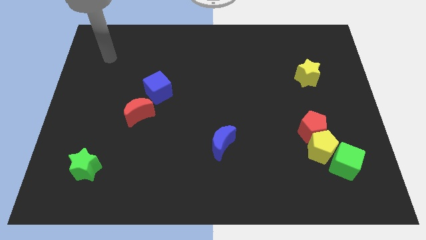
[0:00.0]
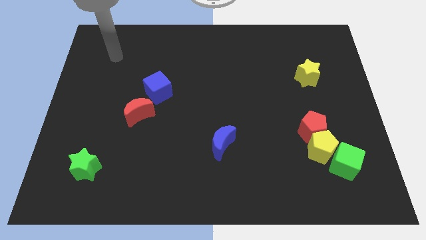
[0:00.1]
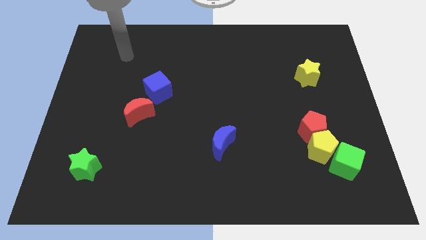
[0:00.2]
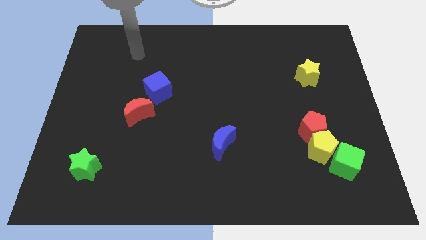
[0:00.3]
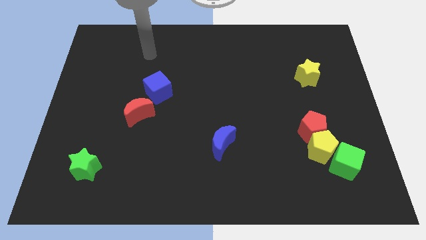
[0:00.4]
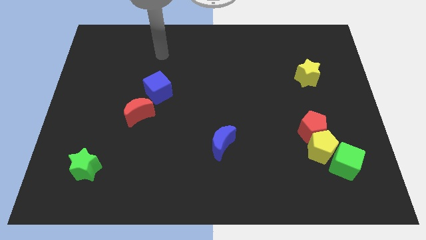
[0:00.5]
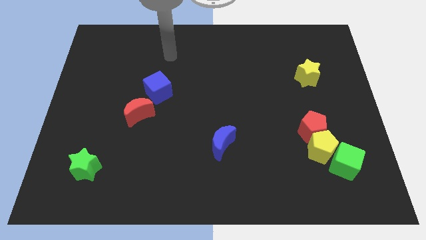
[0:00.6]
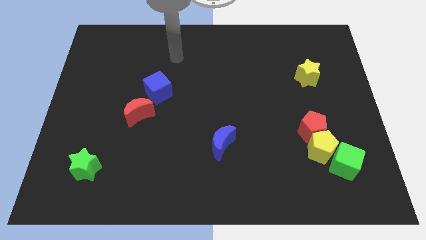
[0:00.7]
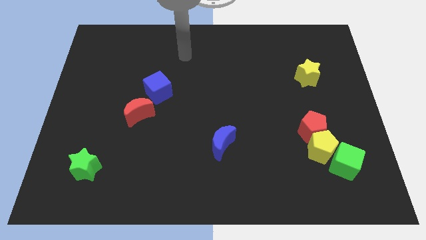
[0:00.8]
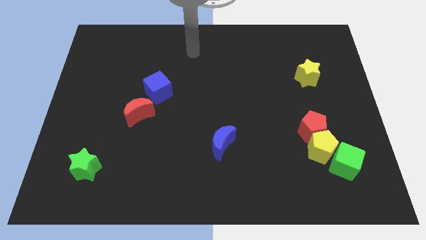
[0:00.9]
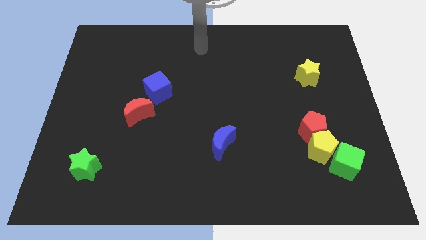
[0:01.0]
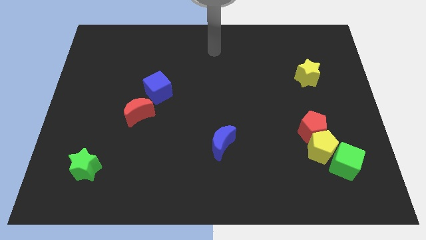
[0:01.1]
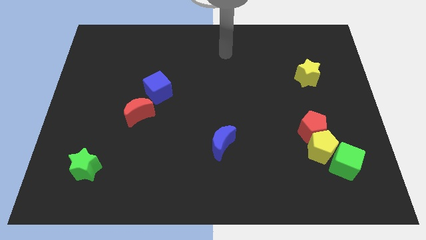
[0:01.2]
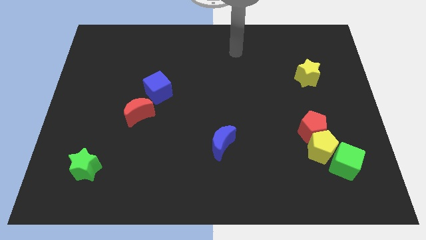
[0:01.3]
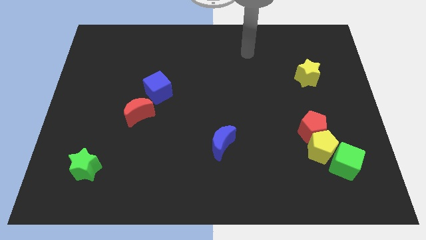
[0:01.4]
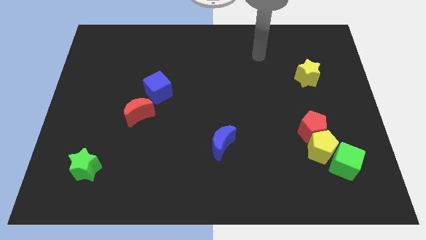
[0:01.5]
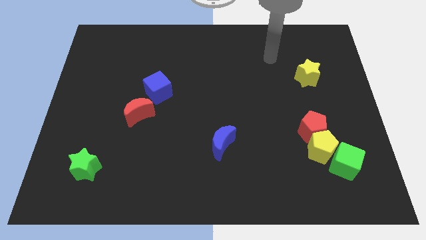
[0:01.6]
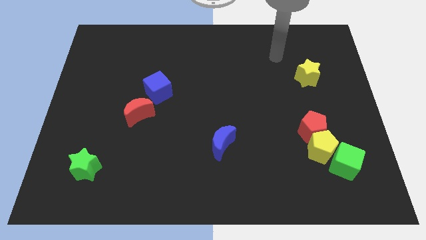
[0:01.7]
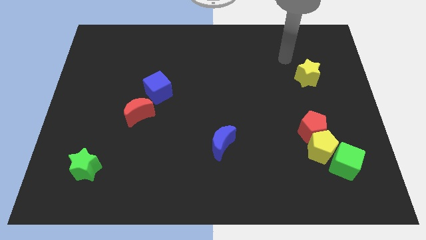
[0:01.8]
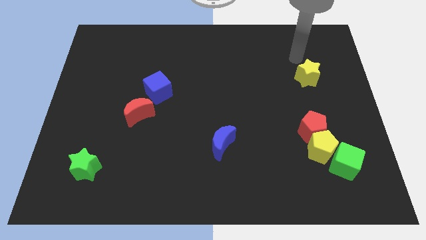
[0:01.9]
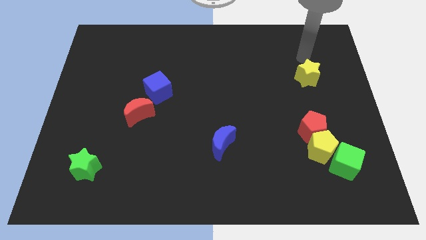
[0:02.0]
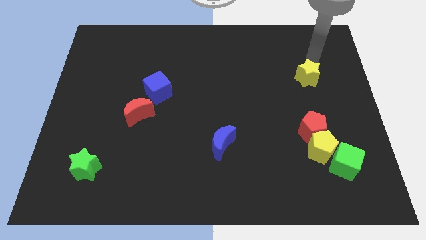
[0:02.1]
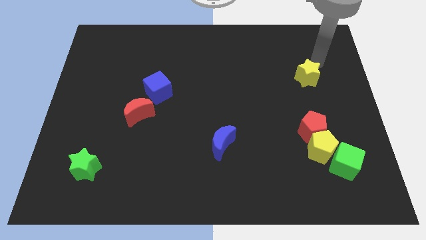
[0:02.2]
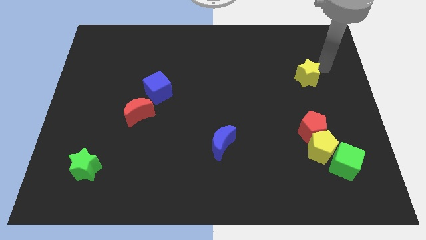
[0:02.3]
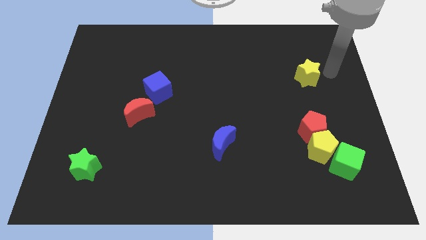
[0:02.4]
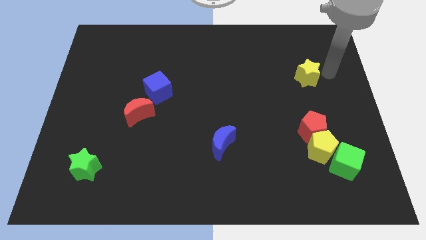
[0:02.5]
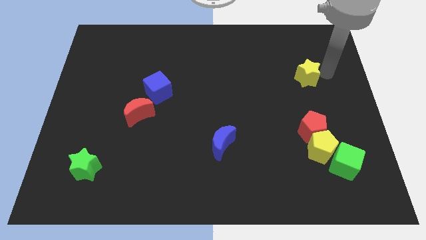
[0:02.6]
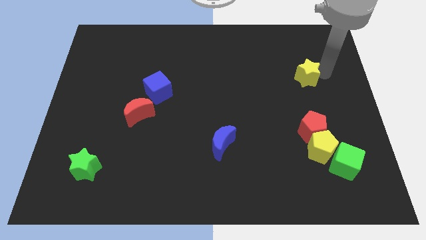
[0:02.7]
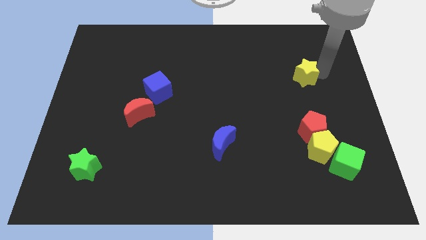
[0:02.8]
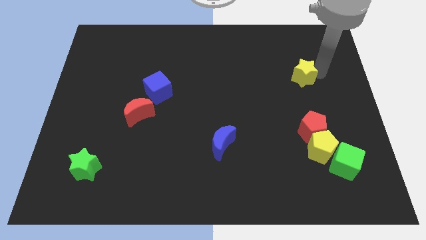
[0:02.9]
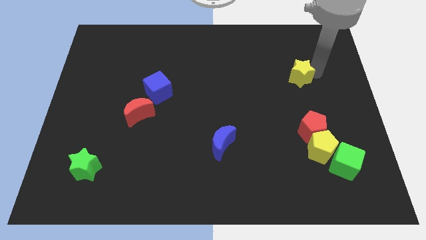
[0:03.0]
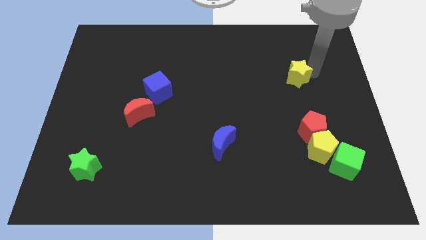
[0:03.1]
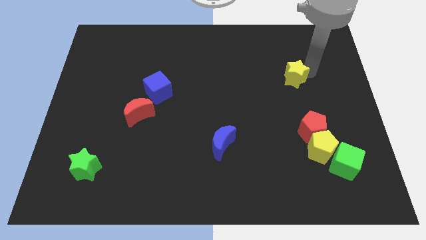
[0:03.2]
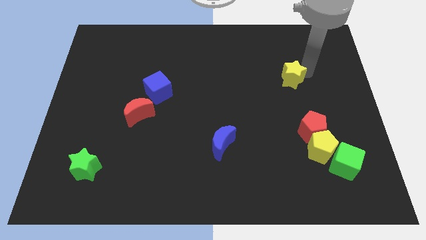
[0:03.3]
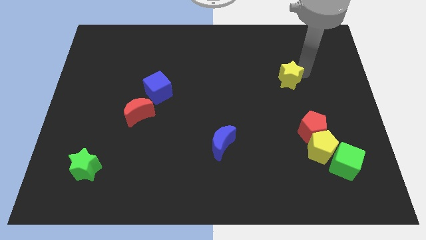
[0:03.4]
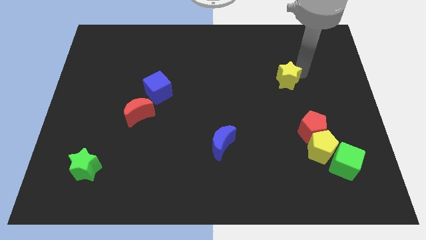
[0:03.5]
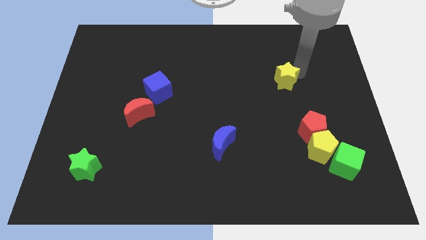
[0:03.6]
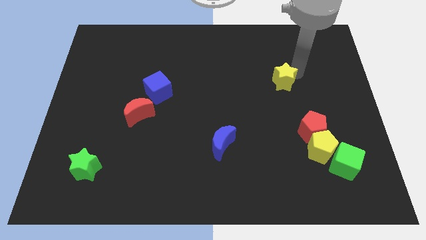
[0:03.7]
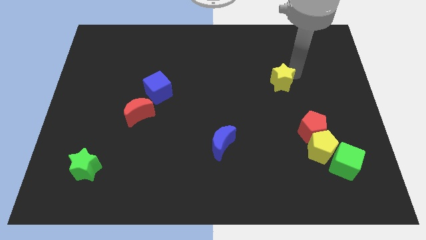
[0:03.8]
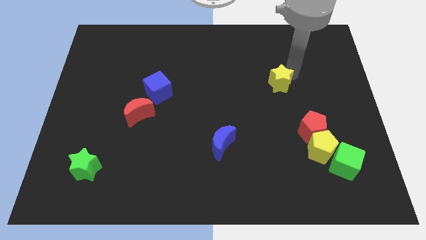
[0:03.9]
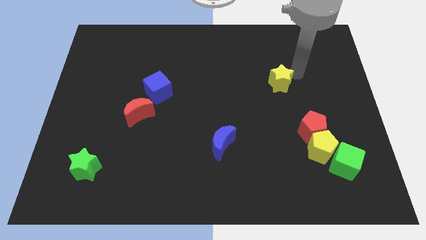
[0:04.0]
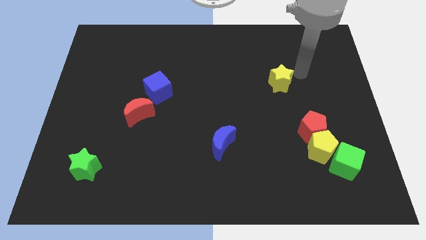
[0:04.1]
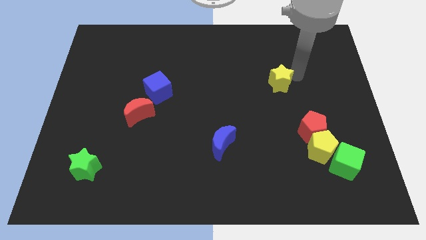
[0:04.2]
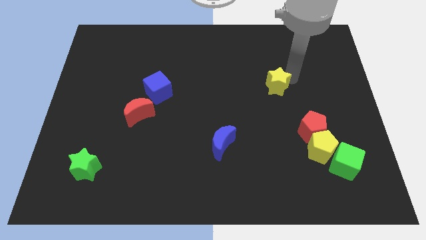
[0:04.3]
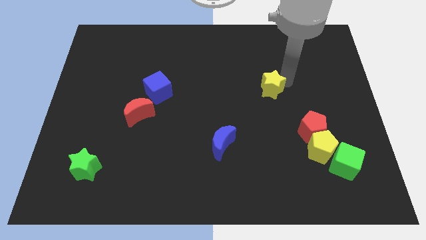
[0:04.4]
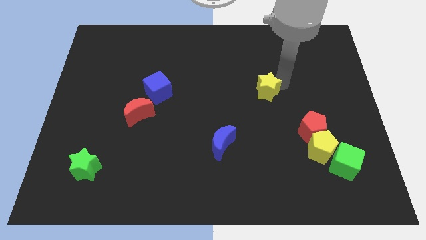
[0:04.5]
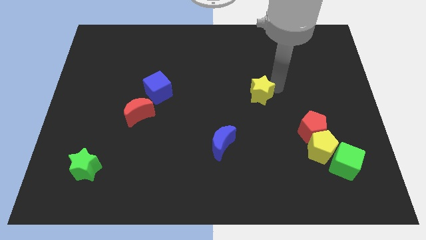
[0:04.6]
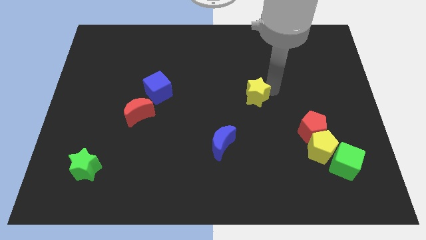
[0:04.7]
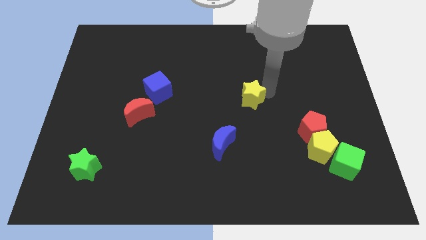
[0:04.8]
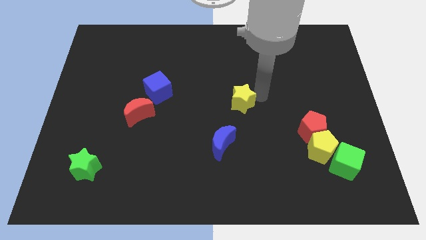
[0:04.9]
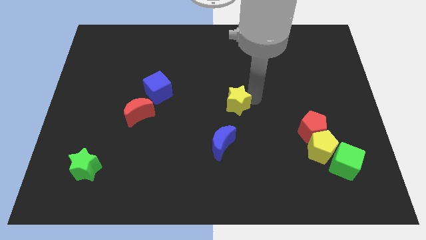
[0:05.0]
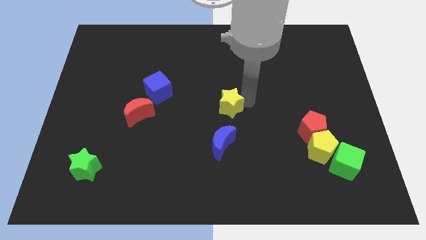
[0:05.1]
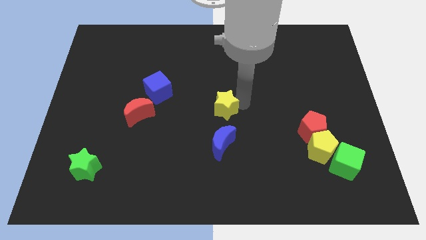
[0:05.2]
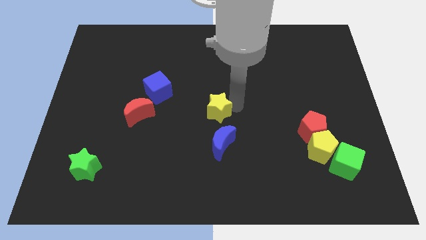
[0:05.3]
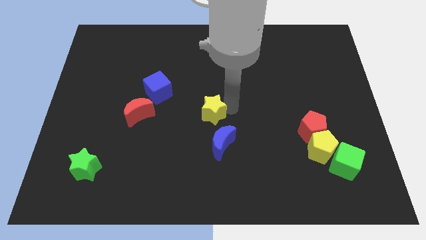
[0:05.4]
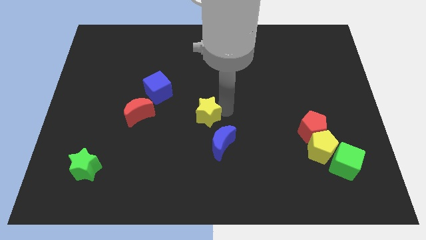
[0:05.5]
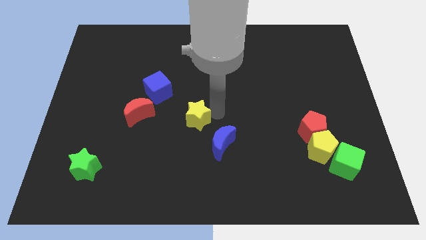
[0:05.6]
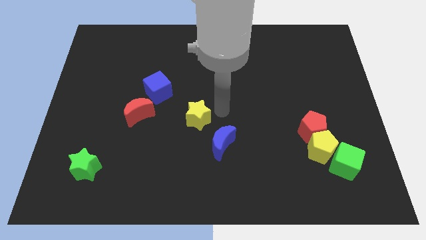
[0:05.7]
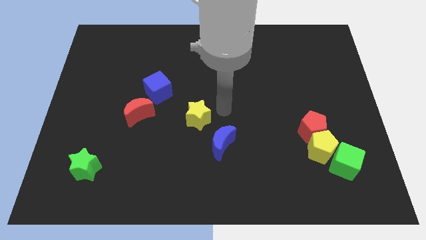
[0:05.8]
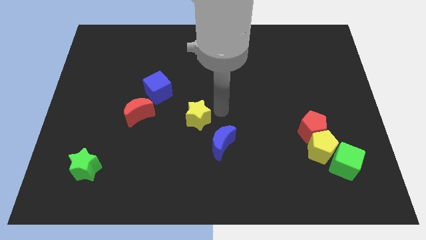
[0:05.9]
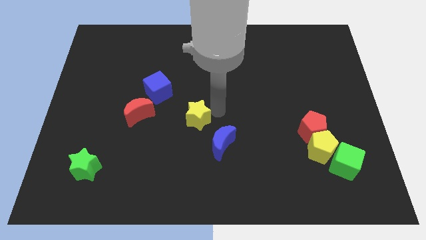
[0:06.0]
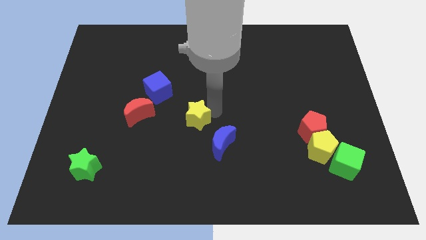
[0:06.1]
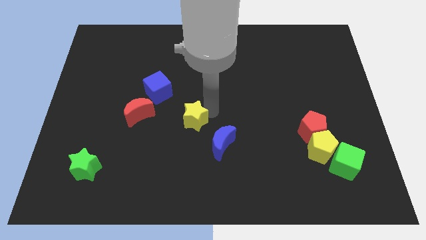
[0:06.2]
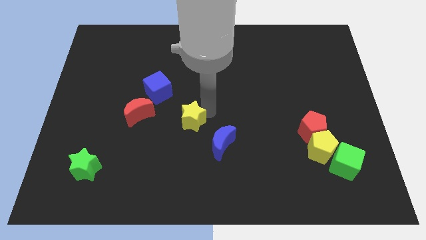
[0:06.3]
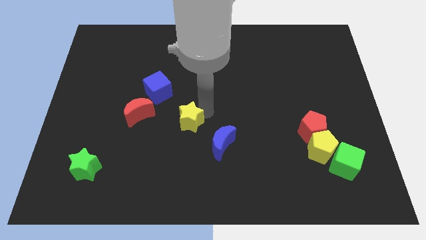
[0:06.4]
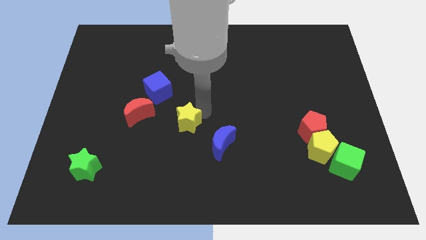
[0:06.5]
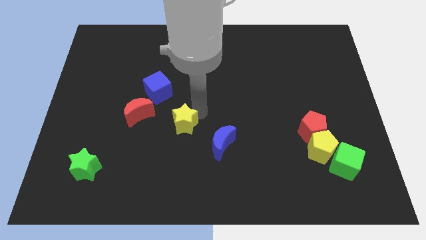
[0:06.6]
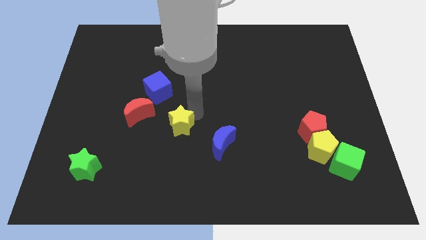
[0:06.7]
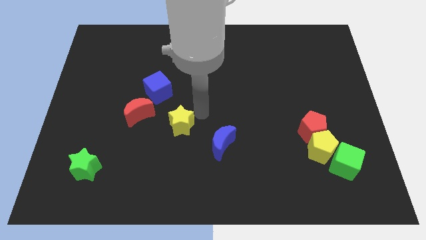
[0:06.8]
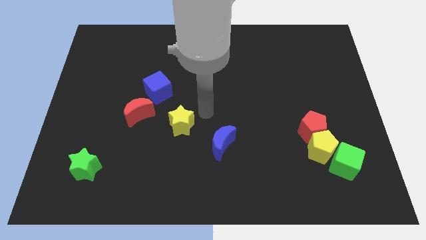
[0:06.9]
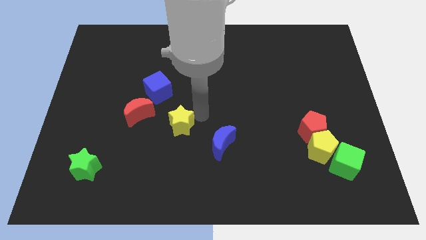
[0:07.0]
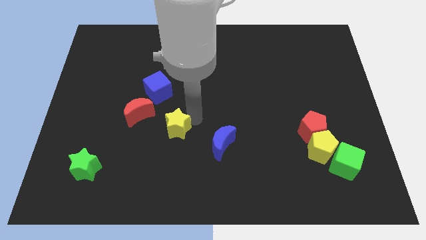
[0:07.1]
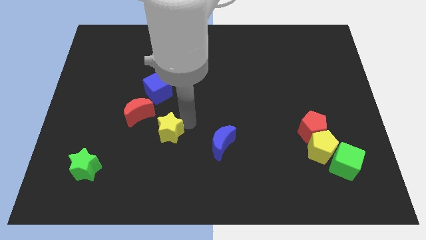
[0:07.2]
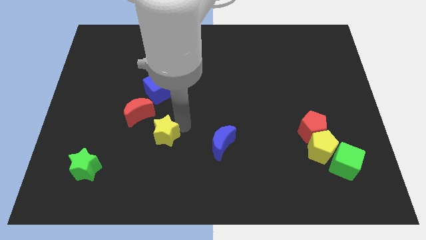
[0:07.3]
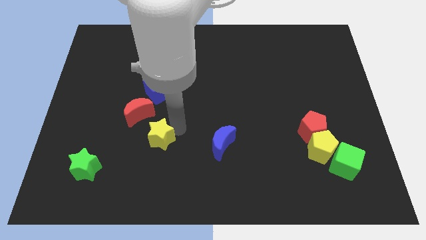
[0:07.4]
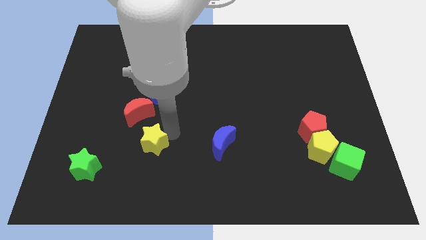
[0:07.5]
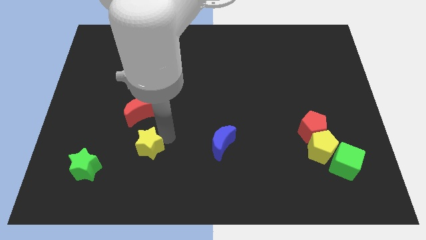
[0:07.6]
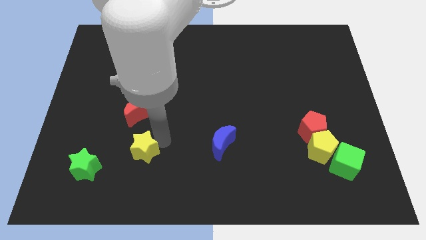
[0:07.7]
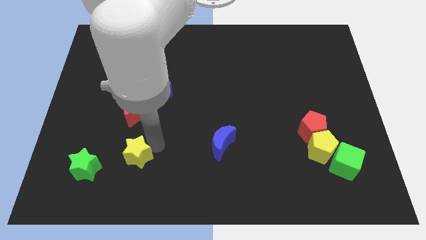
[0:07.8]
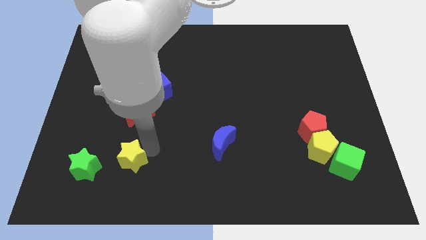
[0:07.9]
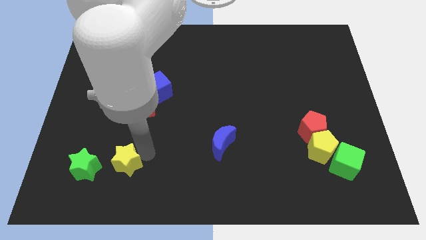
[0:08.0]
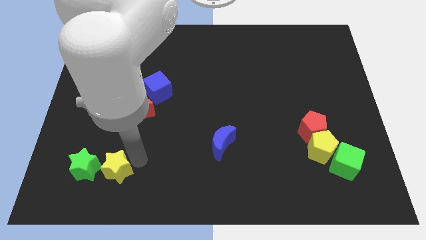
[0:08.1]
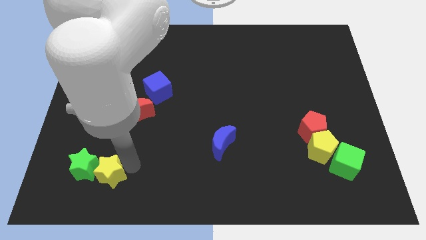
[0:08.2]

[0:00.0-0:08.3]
move the yellow star close to the green star
